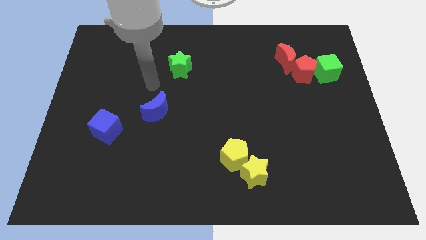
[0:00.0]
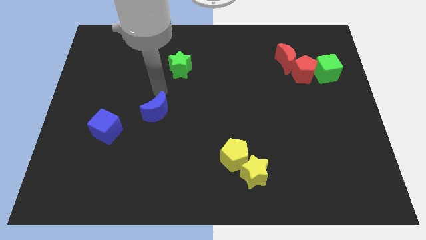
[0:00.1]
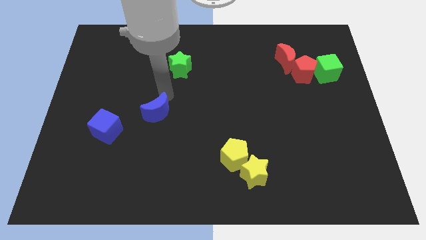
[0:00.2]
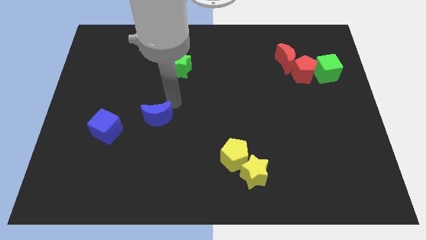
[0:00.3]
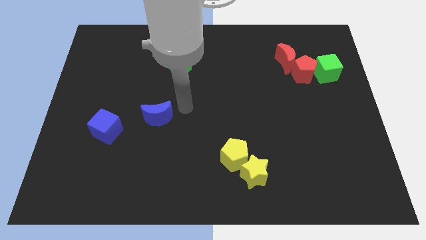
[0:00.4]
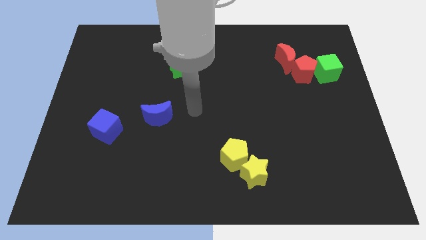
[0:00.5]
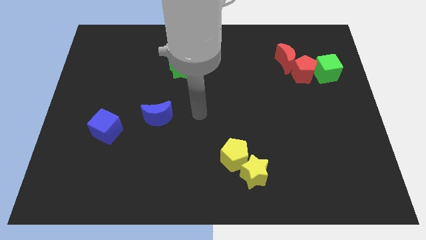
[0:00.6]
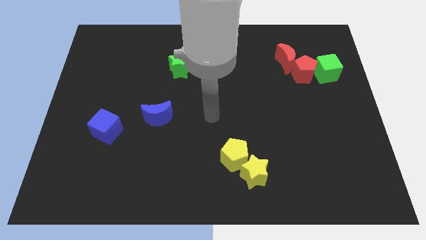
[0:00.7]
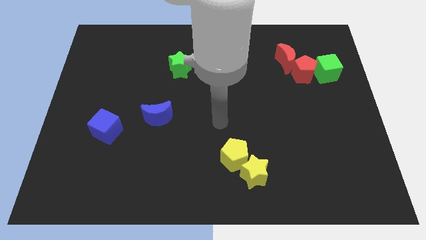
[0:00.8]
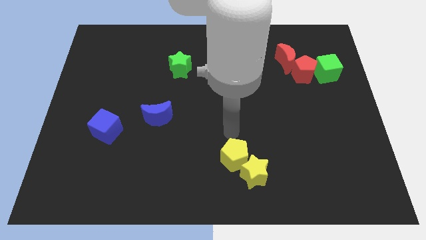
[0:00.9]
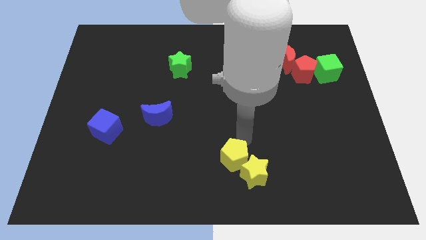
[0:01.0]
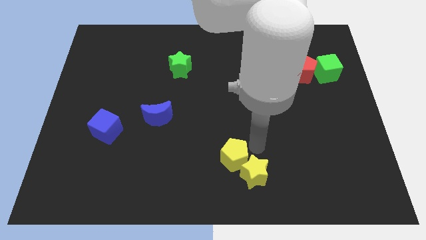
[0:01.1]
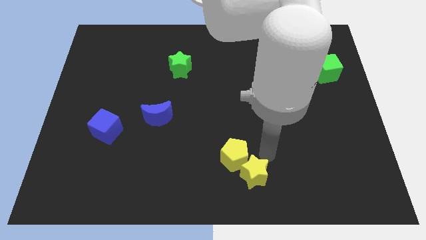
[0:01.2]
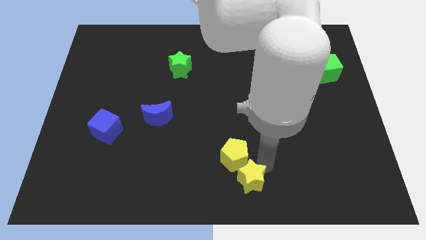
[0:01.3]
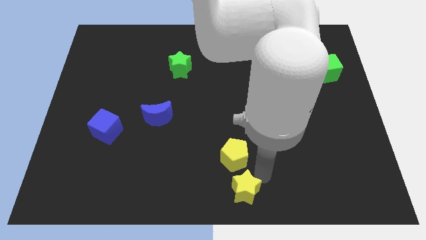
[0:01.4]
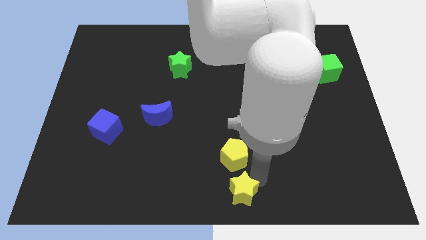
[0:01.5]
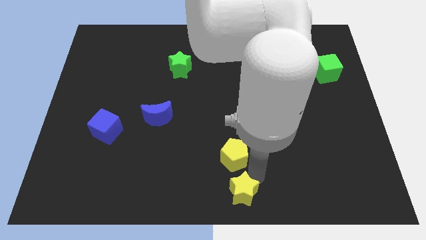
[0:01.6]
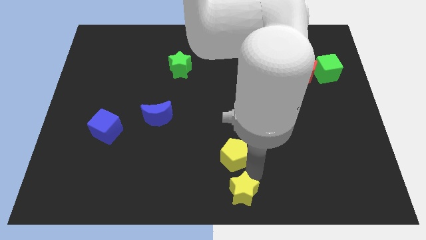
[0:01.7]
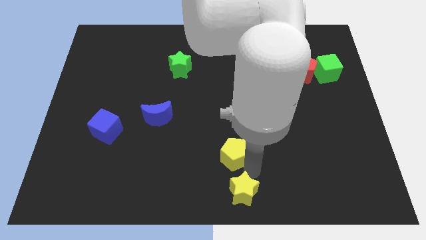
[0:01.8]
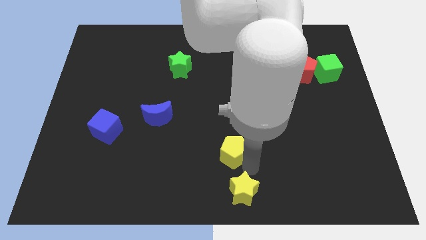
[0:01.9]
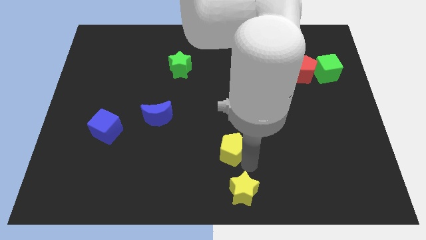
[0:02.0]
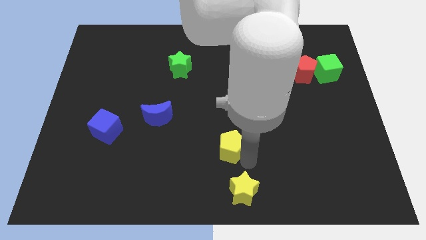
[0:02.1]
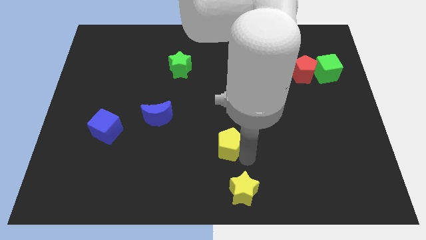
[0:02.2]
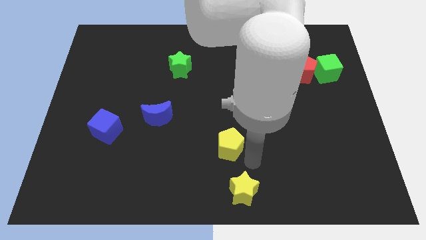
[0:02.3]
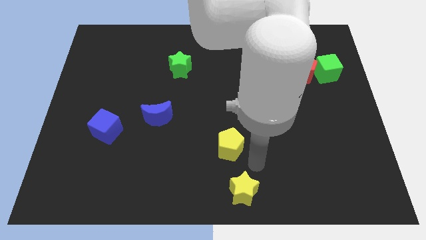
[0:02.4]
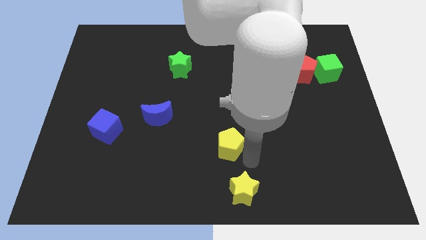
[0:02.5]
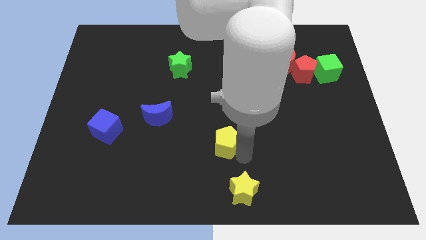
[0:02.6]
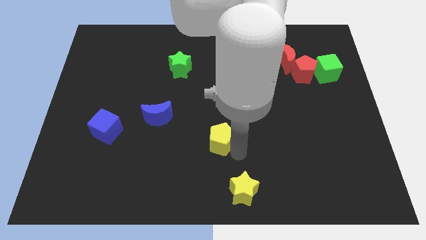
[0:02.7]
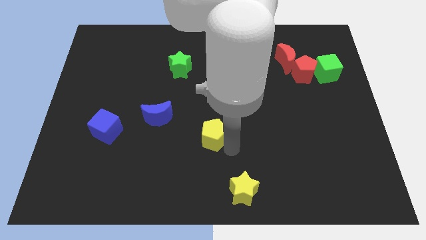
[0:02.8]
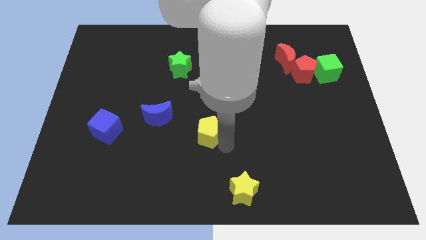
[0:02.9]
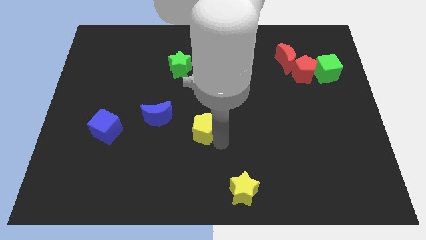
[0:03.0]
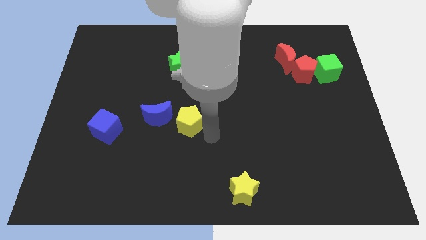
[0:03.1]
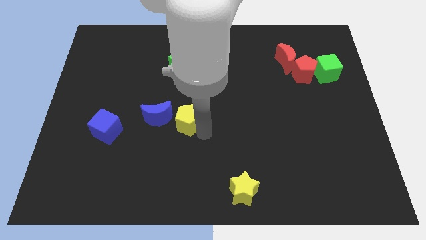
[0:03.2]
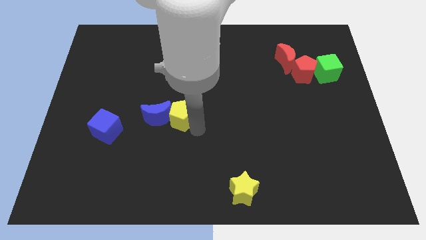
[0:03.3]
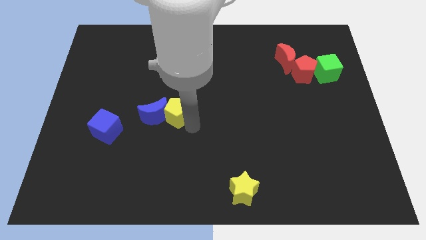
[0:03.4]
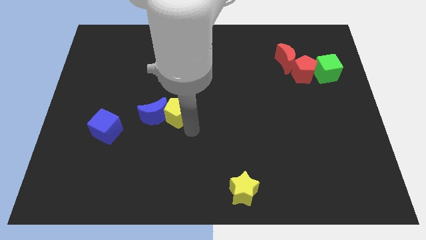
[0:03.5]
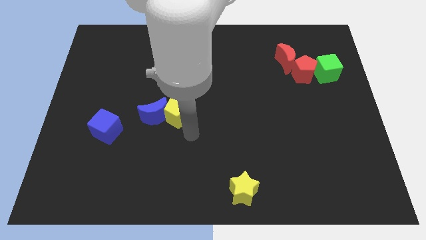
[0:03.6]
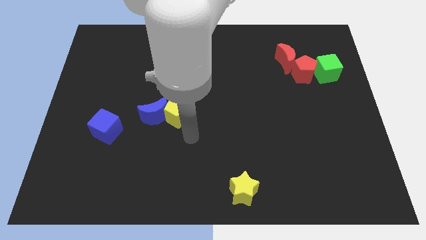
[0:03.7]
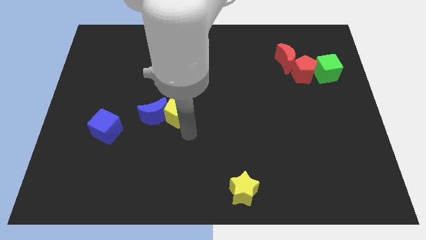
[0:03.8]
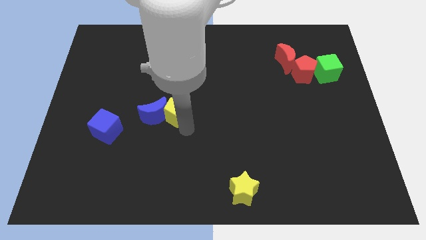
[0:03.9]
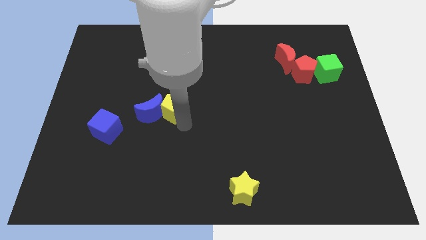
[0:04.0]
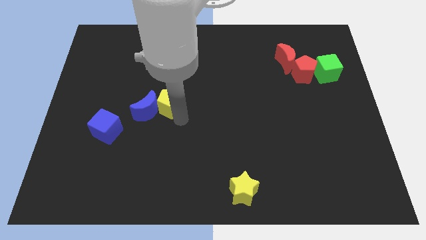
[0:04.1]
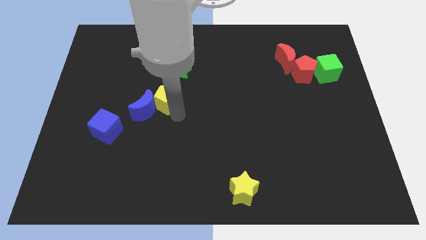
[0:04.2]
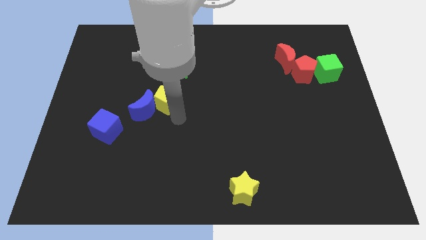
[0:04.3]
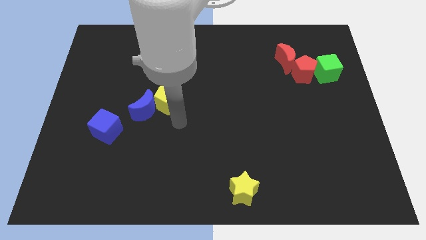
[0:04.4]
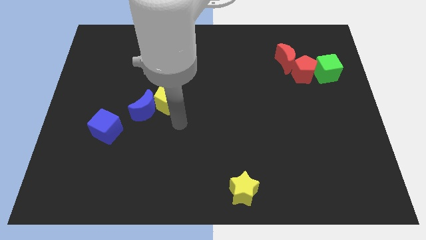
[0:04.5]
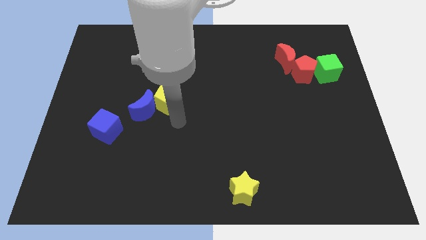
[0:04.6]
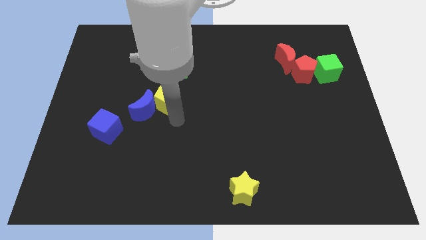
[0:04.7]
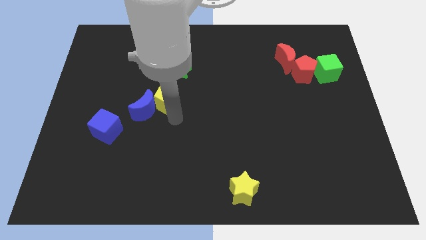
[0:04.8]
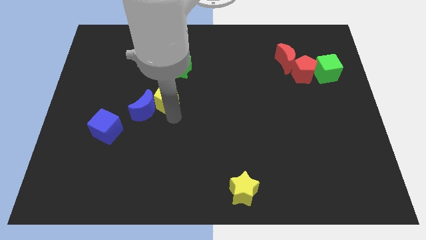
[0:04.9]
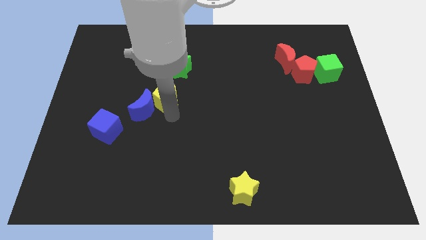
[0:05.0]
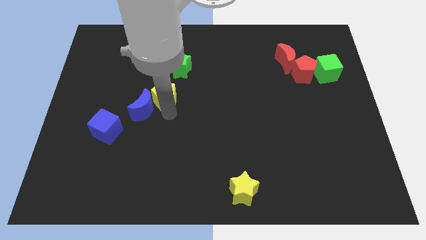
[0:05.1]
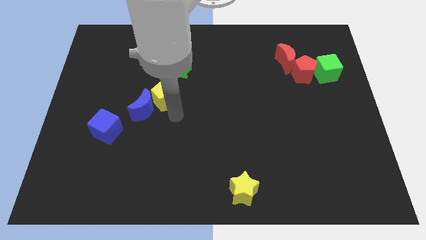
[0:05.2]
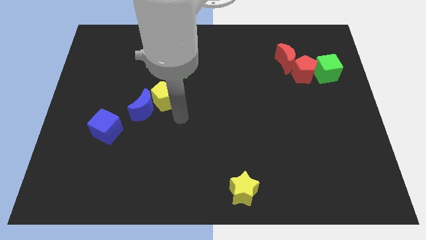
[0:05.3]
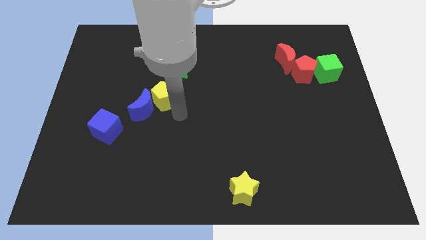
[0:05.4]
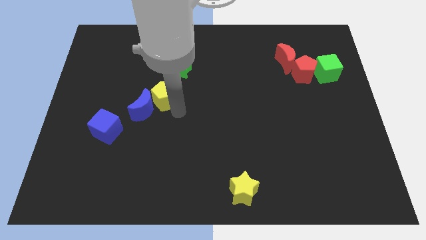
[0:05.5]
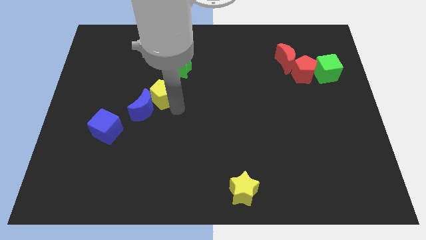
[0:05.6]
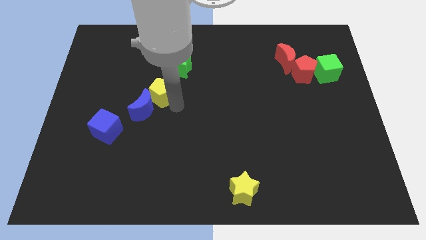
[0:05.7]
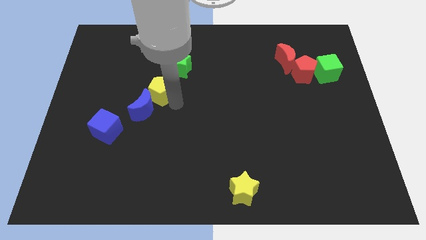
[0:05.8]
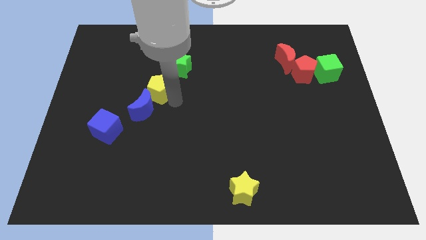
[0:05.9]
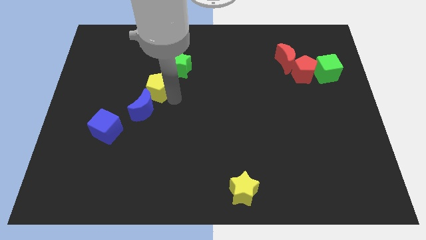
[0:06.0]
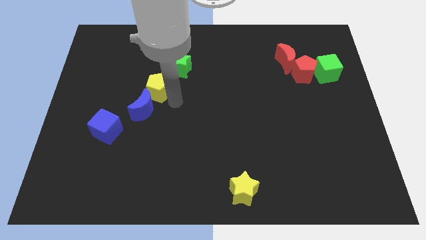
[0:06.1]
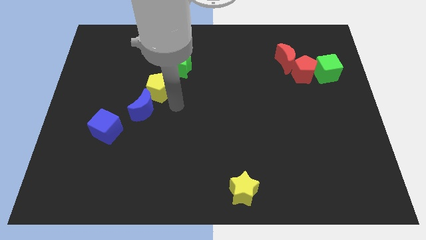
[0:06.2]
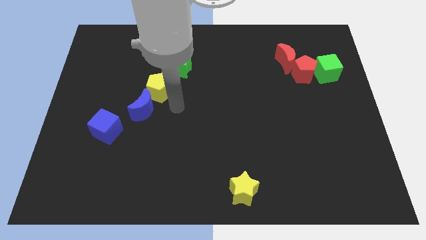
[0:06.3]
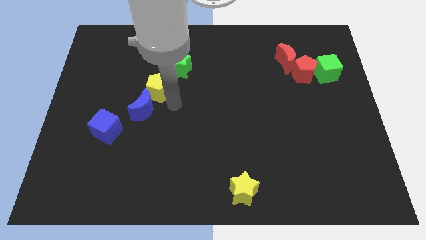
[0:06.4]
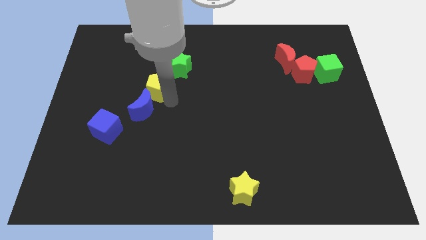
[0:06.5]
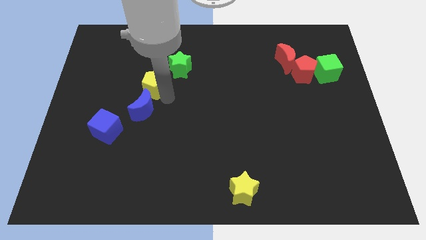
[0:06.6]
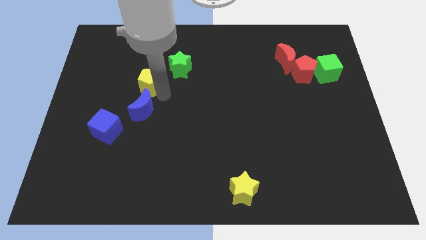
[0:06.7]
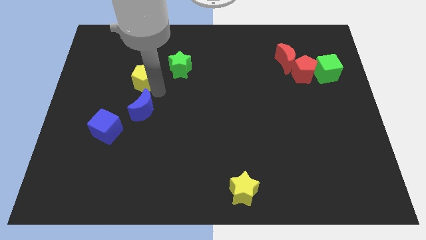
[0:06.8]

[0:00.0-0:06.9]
put the yellow pentagon left of the green star
